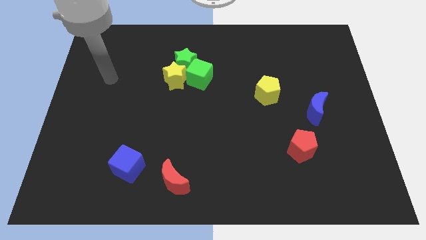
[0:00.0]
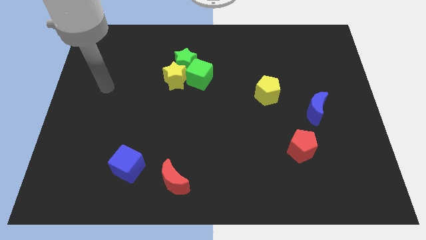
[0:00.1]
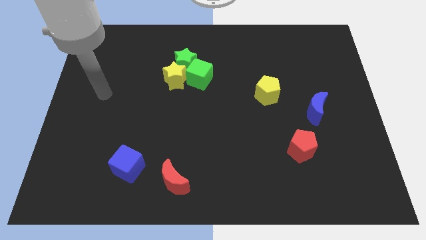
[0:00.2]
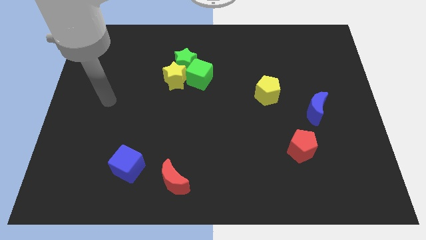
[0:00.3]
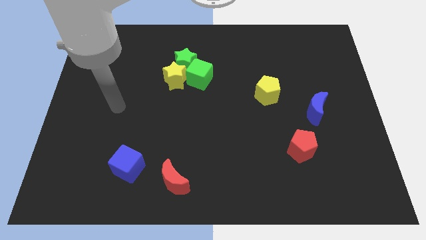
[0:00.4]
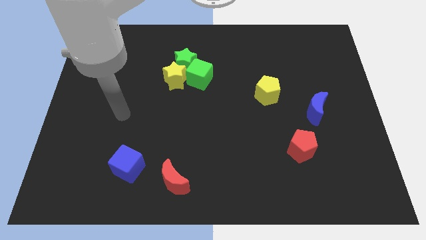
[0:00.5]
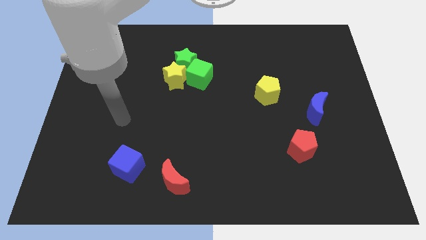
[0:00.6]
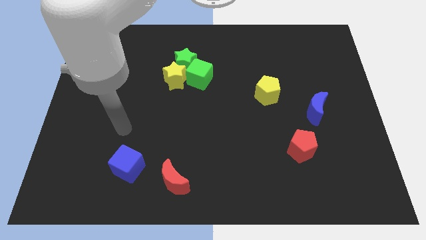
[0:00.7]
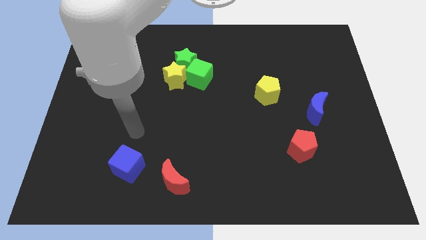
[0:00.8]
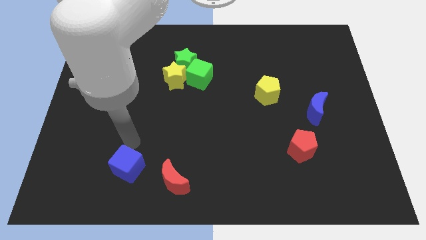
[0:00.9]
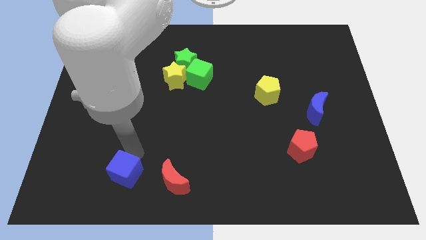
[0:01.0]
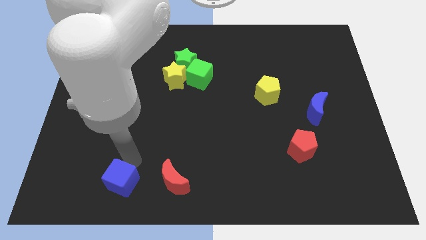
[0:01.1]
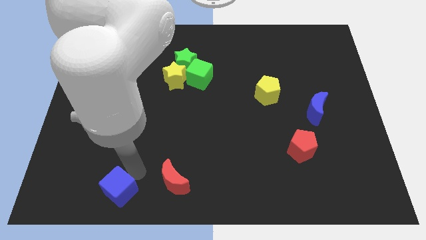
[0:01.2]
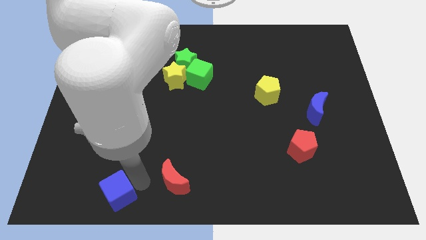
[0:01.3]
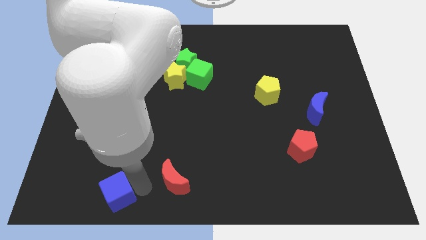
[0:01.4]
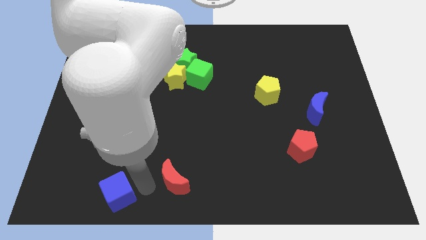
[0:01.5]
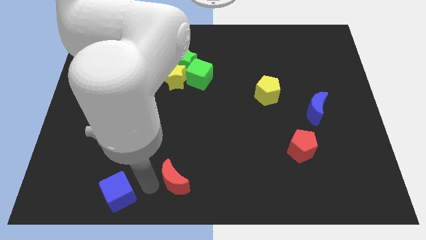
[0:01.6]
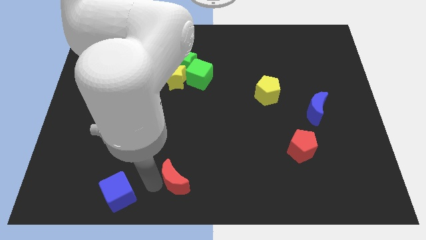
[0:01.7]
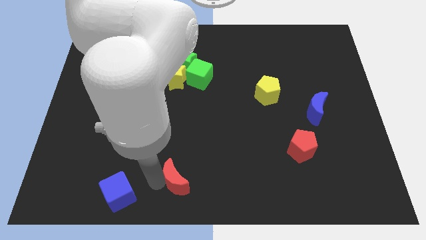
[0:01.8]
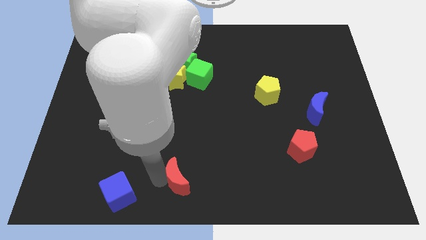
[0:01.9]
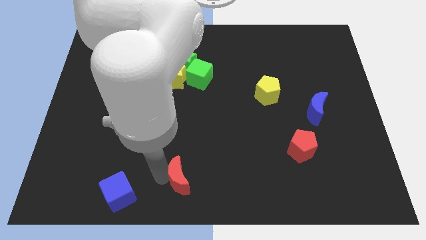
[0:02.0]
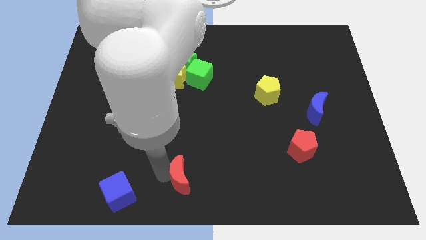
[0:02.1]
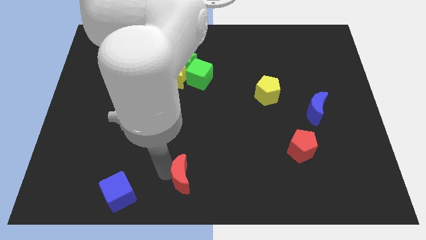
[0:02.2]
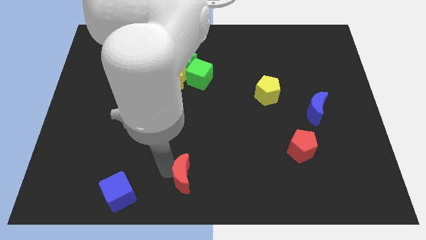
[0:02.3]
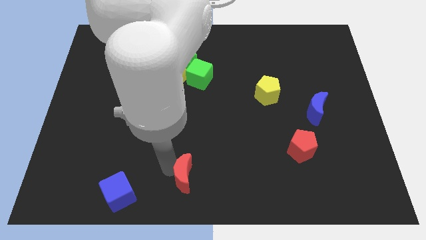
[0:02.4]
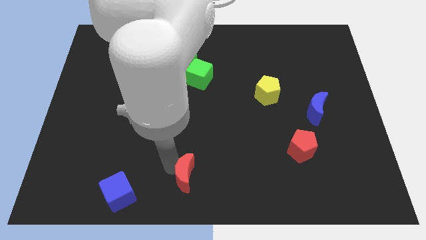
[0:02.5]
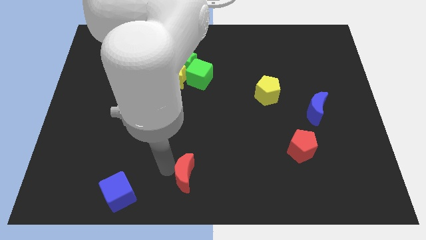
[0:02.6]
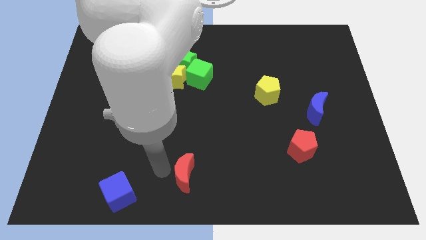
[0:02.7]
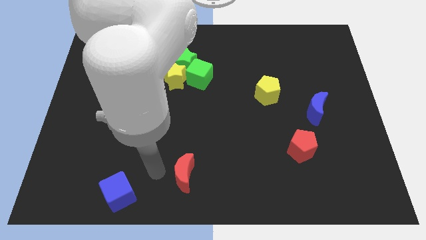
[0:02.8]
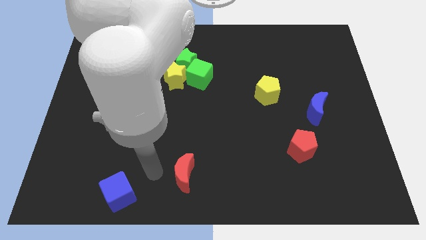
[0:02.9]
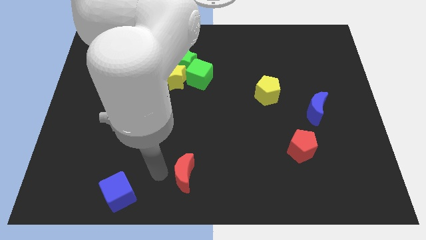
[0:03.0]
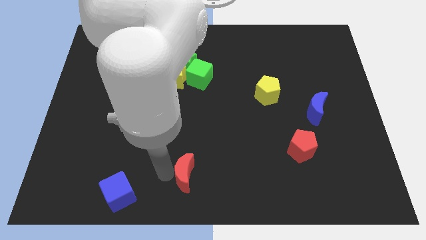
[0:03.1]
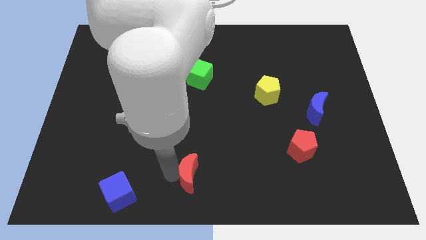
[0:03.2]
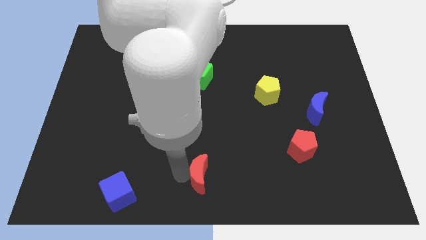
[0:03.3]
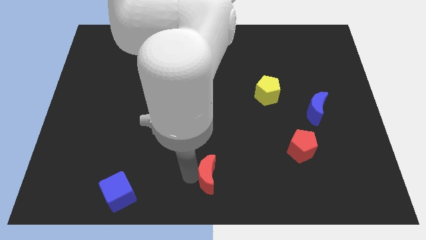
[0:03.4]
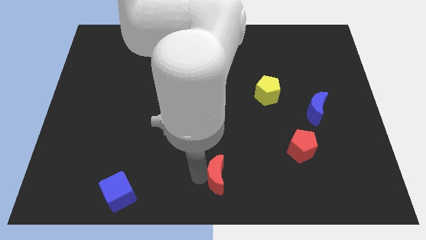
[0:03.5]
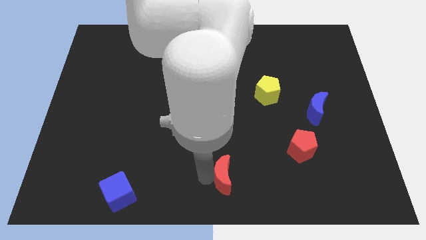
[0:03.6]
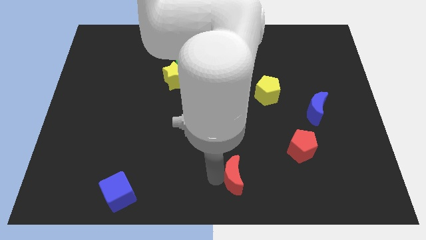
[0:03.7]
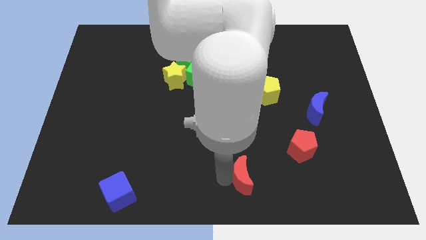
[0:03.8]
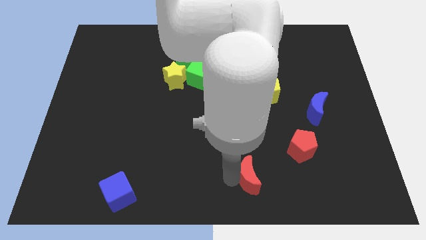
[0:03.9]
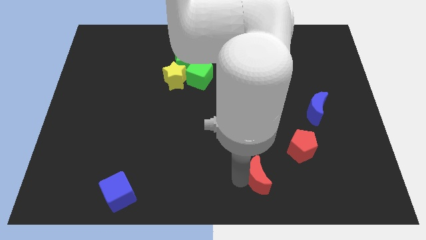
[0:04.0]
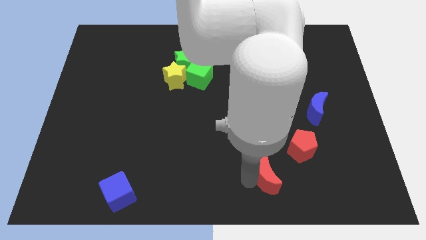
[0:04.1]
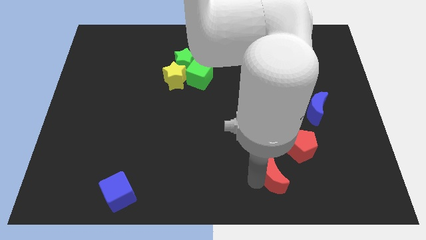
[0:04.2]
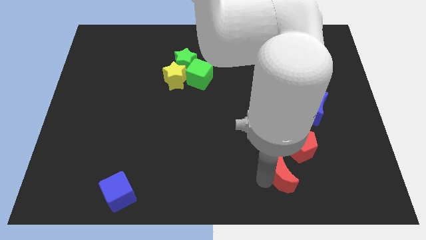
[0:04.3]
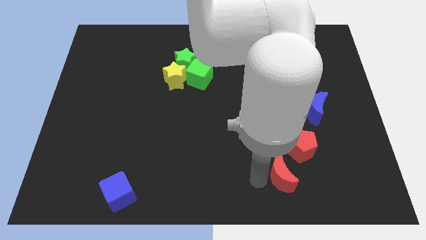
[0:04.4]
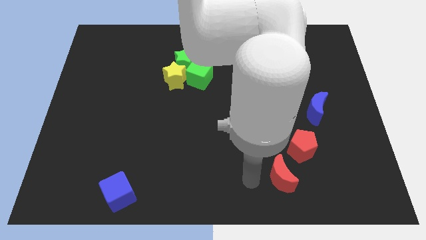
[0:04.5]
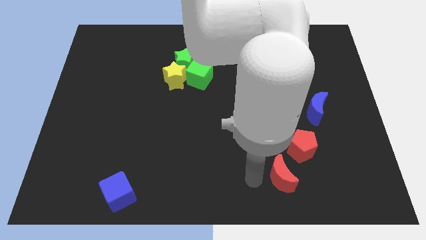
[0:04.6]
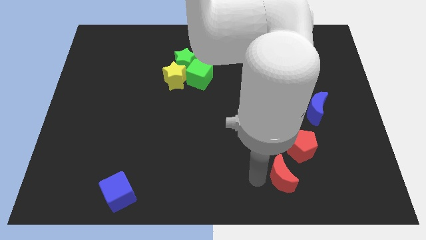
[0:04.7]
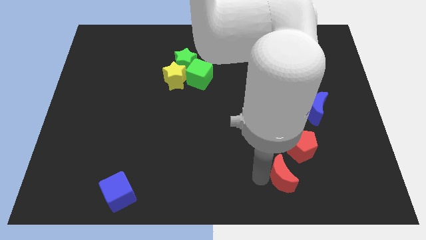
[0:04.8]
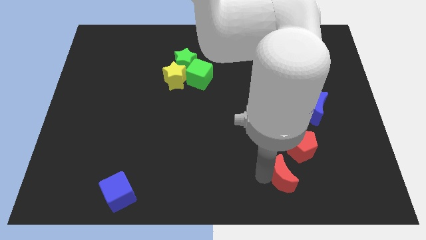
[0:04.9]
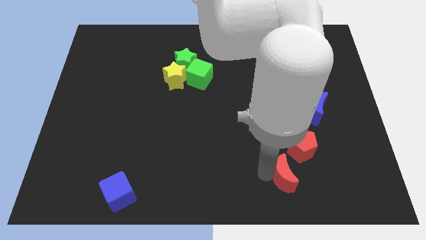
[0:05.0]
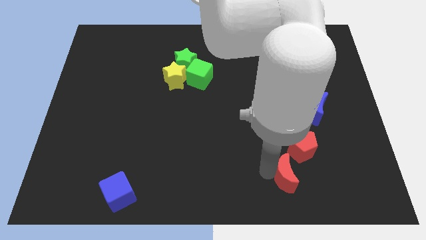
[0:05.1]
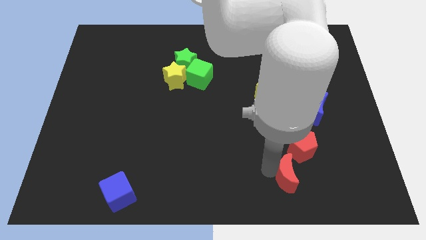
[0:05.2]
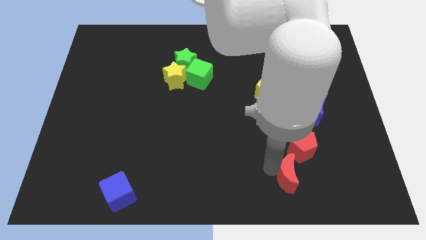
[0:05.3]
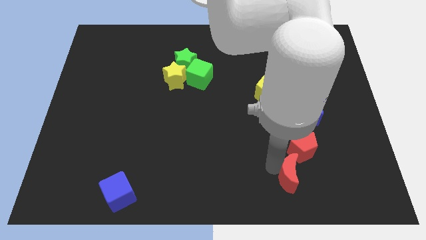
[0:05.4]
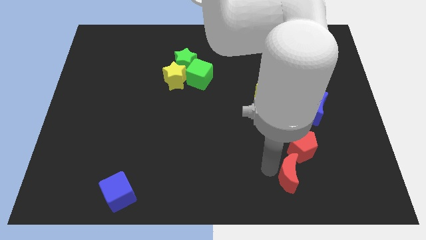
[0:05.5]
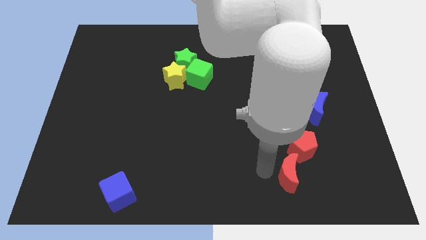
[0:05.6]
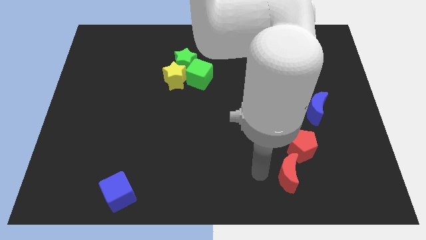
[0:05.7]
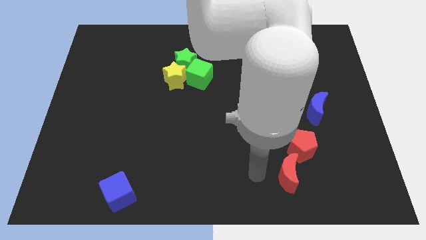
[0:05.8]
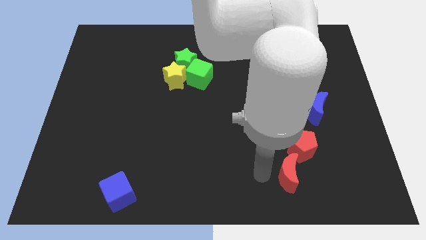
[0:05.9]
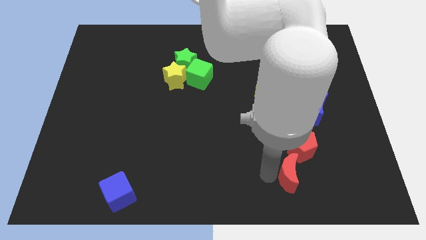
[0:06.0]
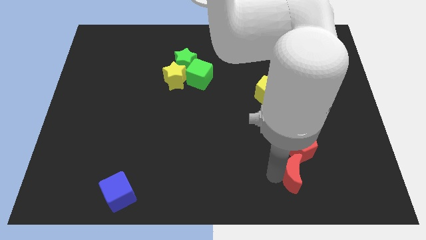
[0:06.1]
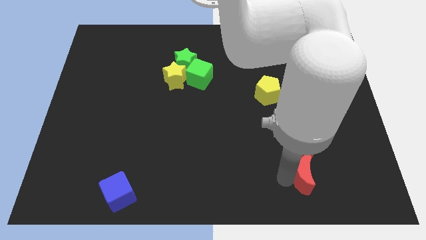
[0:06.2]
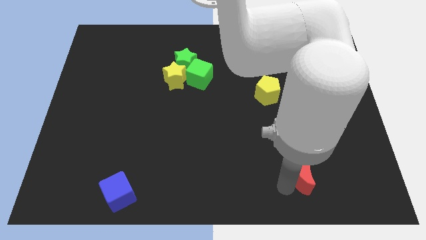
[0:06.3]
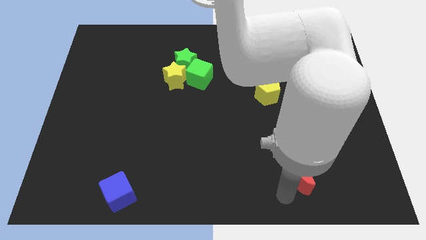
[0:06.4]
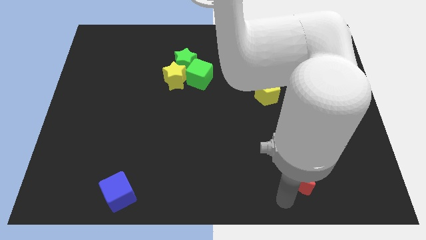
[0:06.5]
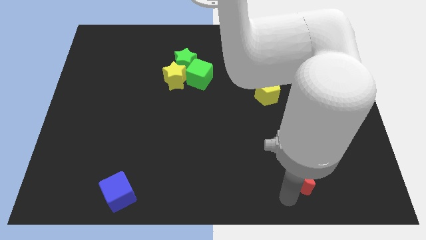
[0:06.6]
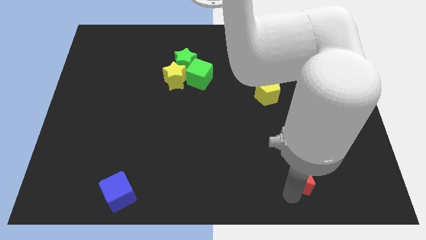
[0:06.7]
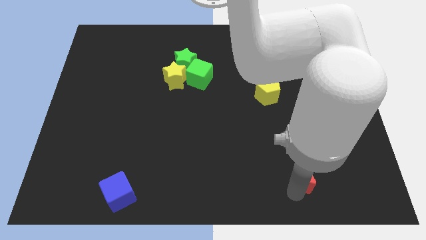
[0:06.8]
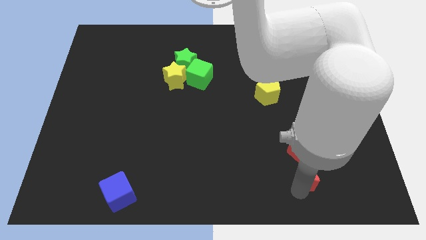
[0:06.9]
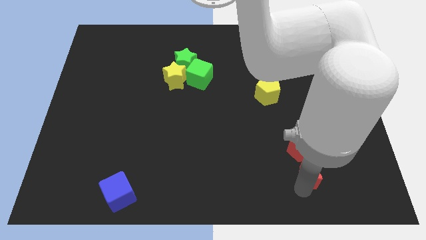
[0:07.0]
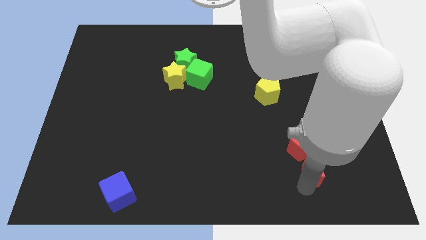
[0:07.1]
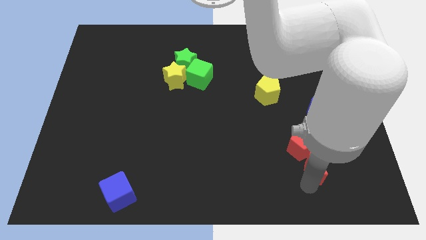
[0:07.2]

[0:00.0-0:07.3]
move the red moon below the blue moon

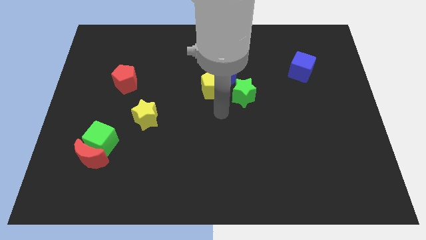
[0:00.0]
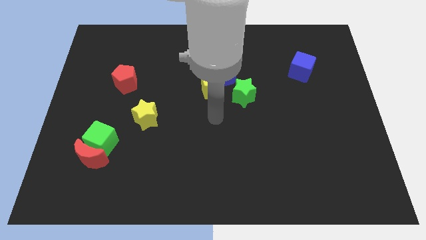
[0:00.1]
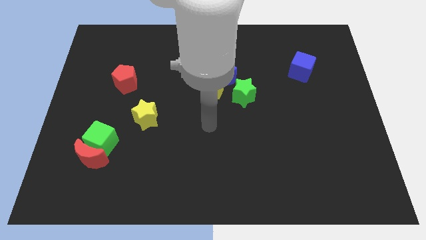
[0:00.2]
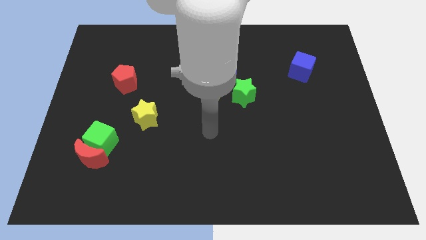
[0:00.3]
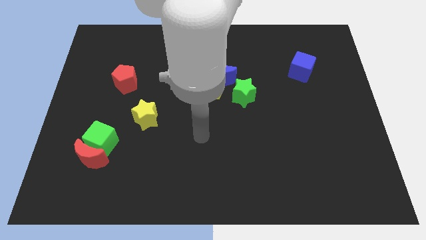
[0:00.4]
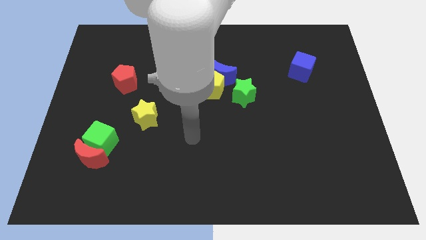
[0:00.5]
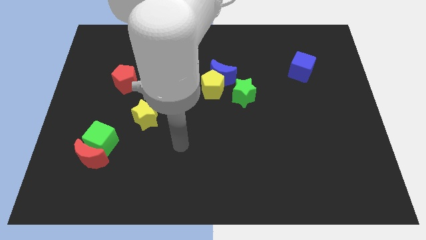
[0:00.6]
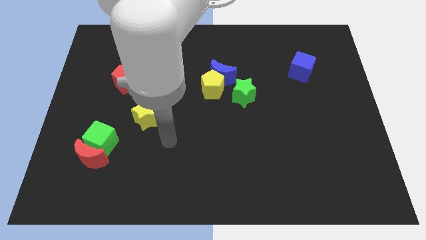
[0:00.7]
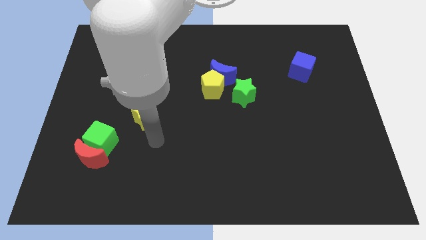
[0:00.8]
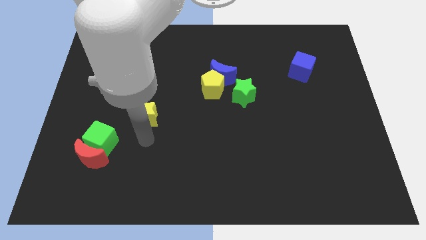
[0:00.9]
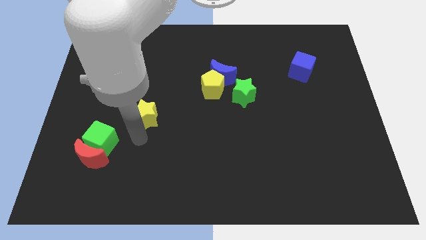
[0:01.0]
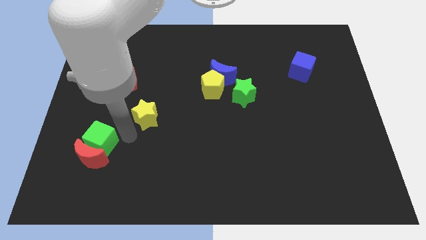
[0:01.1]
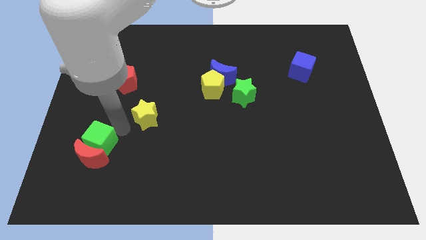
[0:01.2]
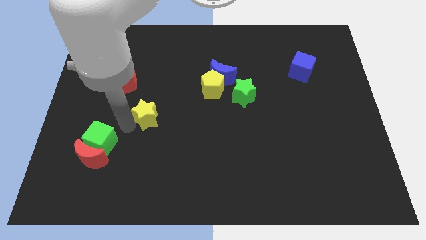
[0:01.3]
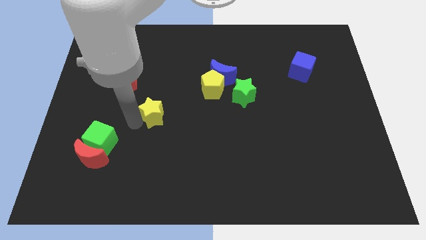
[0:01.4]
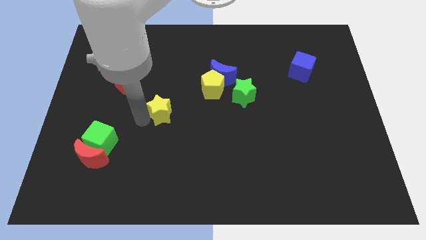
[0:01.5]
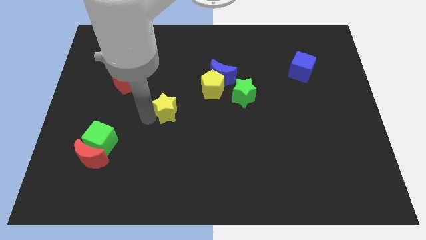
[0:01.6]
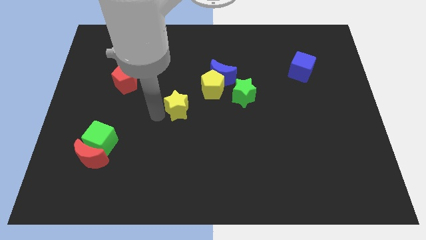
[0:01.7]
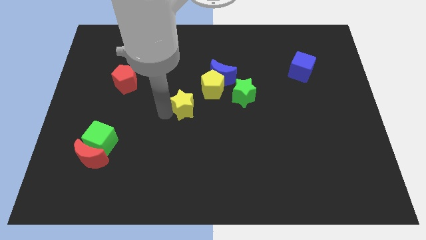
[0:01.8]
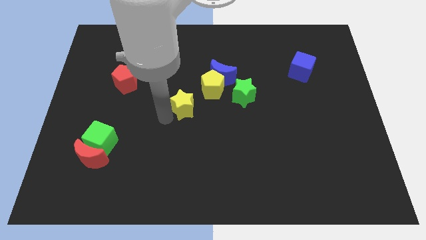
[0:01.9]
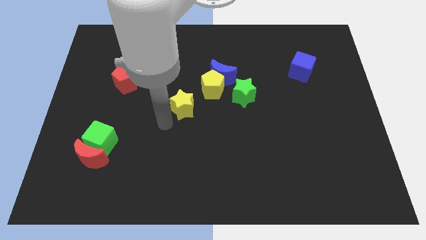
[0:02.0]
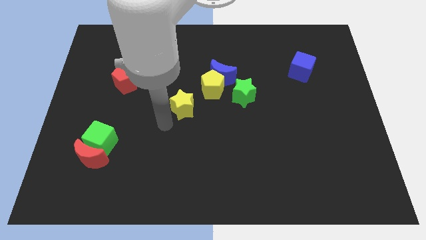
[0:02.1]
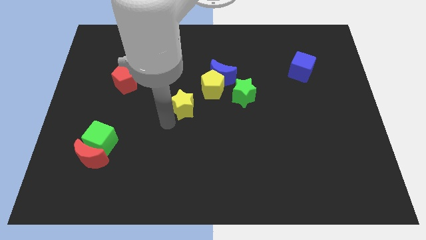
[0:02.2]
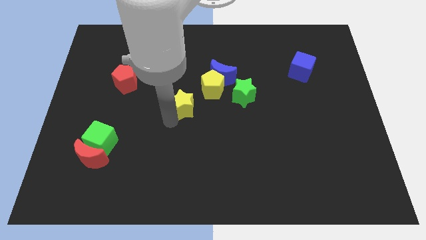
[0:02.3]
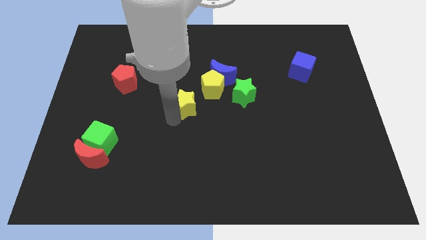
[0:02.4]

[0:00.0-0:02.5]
slide the yellow star diagonally down and to the left of the blue moon
